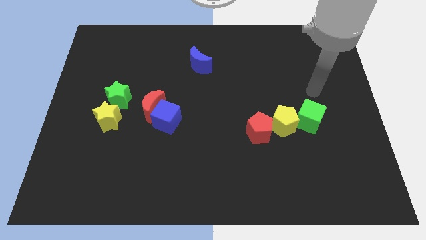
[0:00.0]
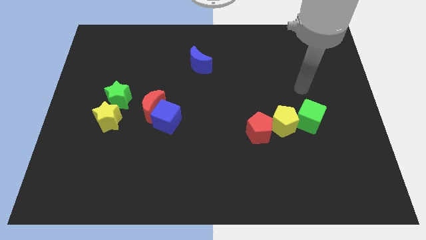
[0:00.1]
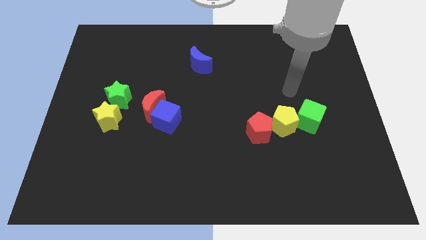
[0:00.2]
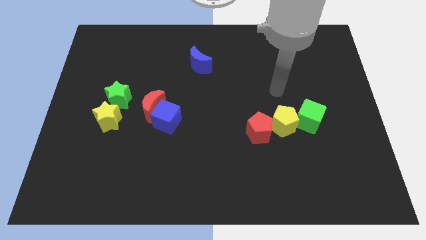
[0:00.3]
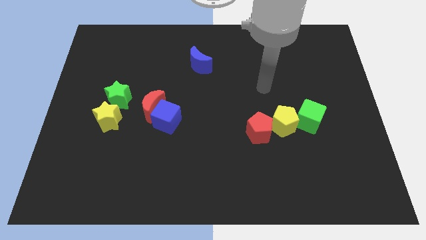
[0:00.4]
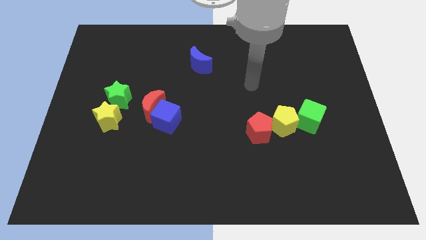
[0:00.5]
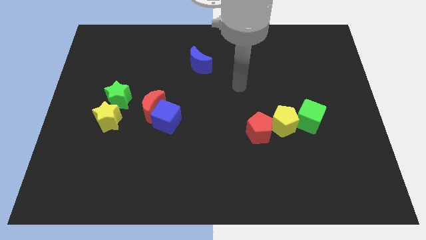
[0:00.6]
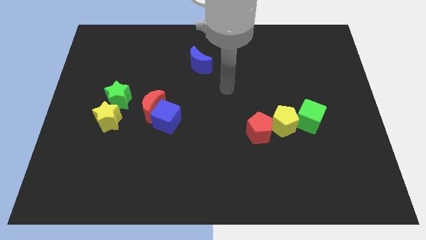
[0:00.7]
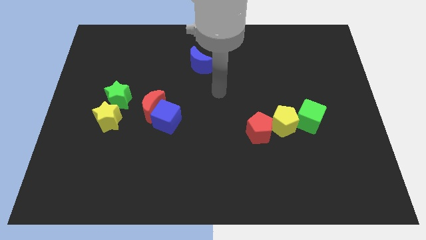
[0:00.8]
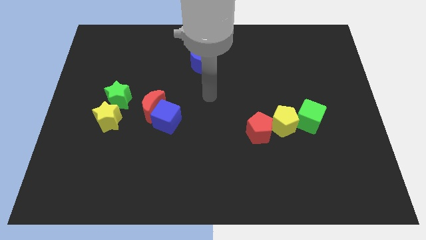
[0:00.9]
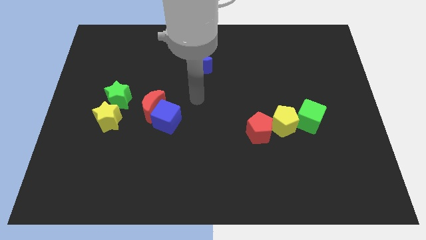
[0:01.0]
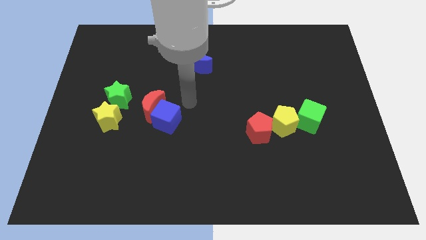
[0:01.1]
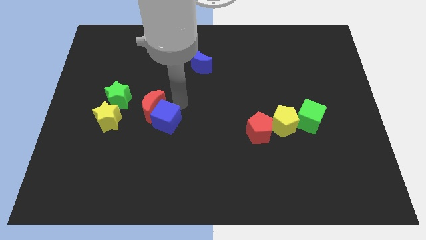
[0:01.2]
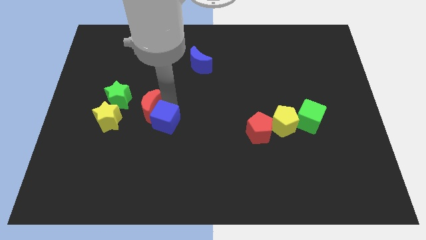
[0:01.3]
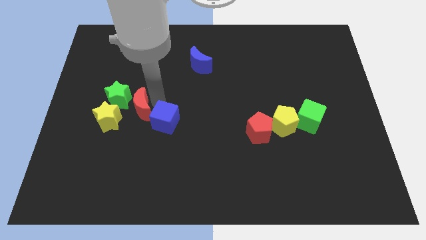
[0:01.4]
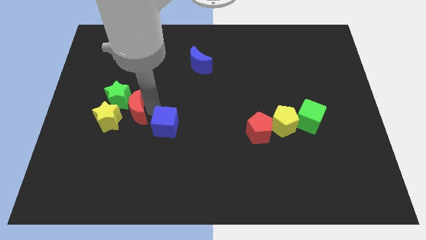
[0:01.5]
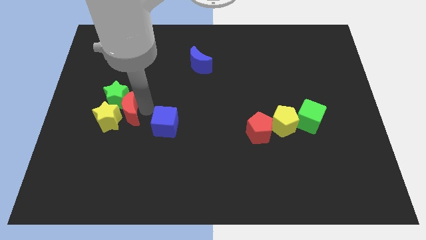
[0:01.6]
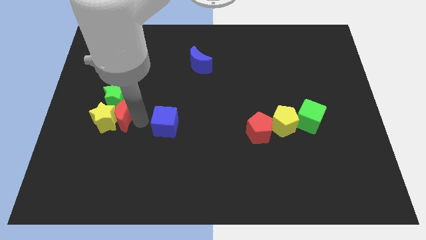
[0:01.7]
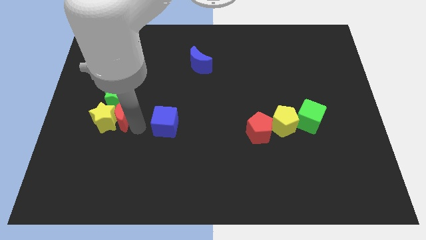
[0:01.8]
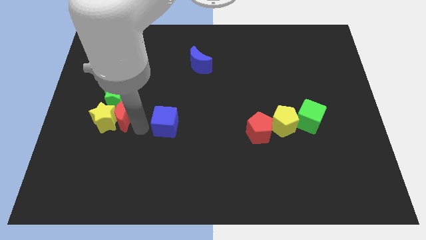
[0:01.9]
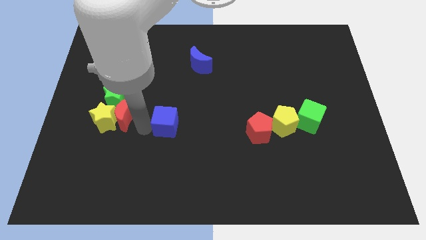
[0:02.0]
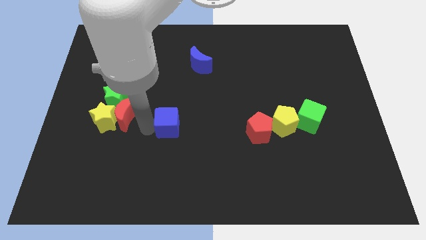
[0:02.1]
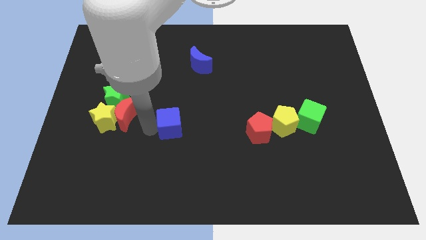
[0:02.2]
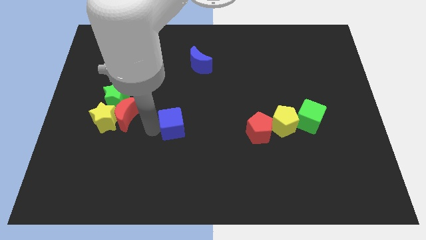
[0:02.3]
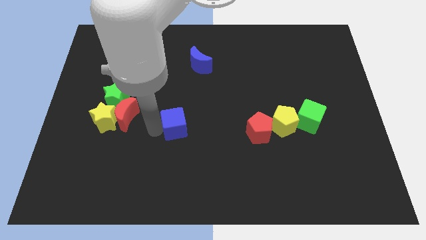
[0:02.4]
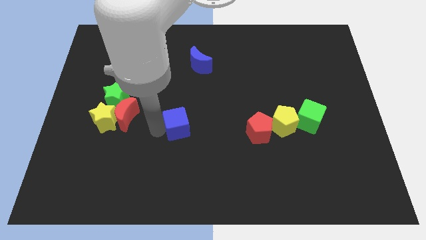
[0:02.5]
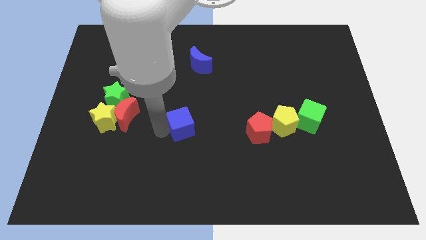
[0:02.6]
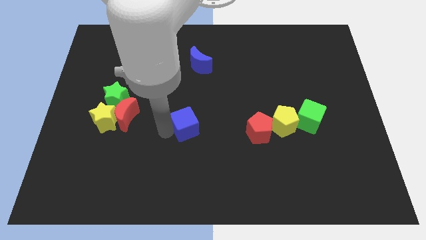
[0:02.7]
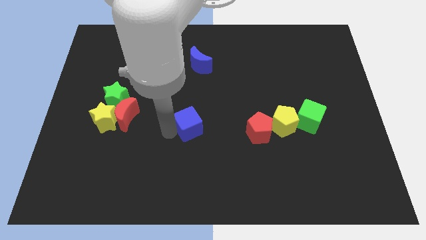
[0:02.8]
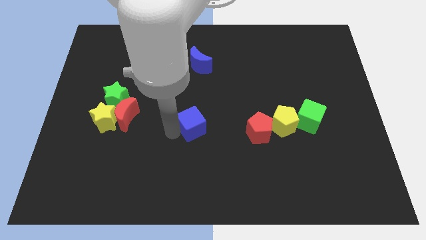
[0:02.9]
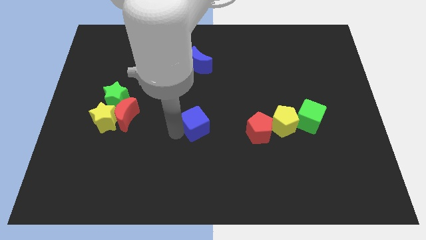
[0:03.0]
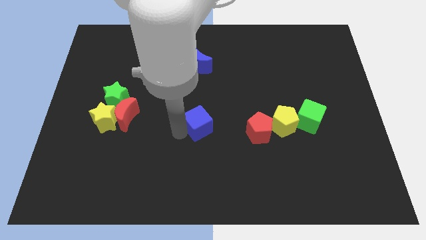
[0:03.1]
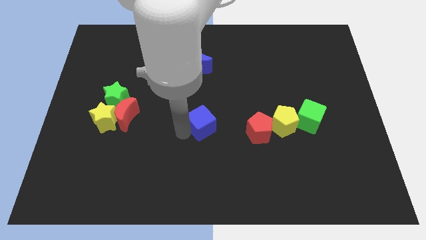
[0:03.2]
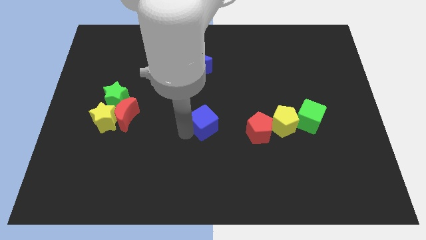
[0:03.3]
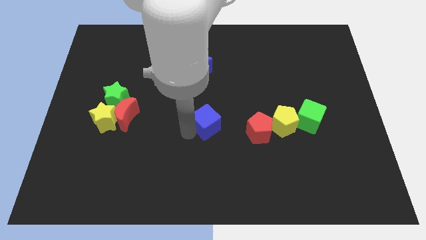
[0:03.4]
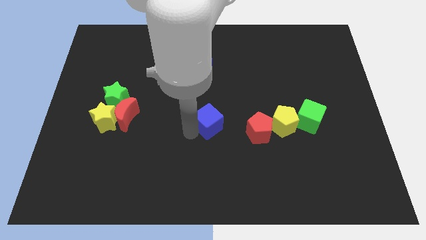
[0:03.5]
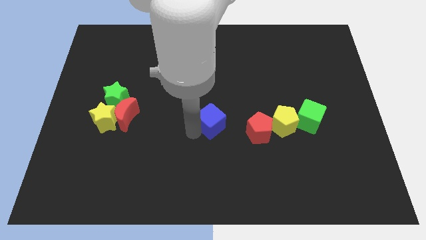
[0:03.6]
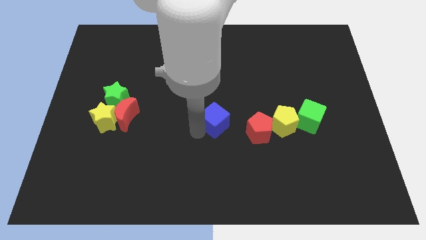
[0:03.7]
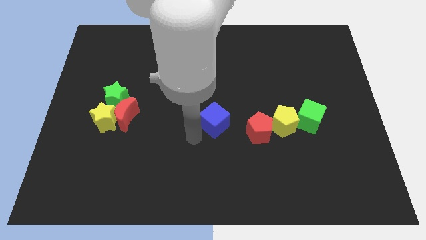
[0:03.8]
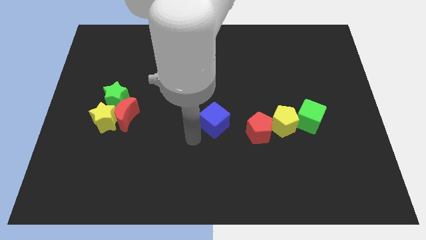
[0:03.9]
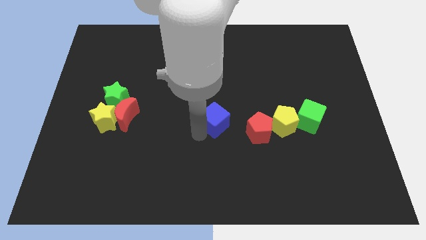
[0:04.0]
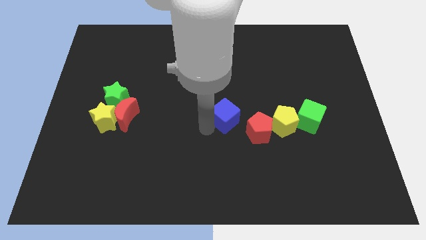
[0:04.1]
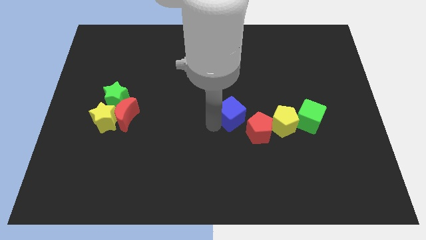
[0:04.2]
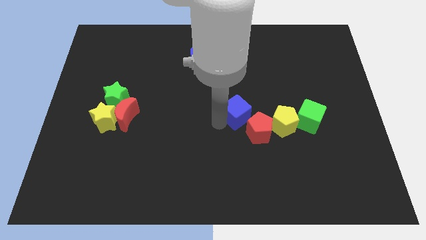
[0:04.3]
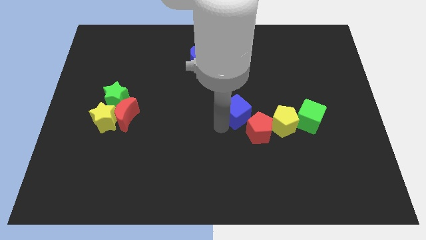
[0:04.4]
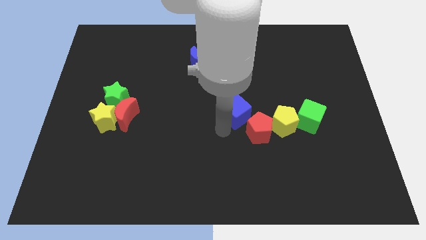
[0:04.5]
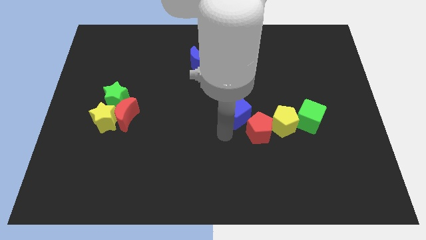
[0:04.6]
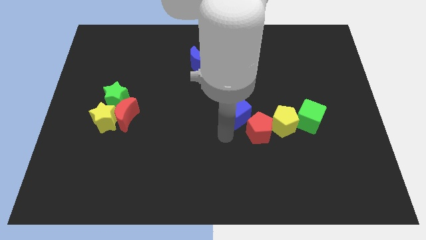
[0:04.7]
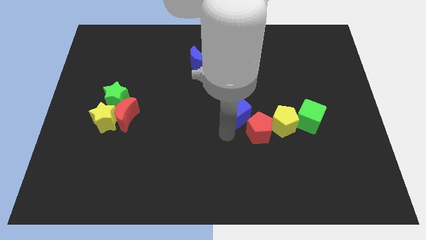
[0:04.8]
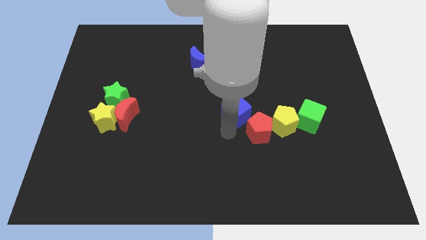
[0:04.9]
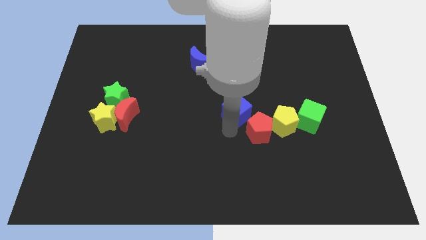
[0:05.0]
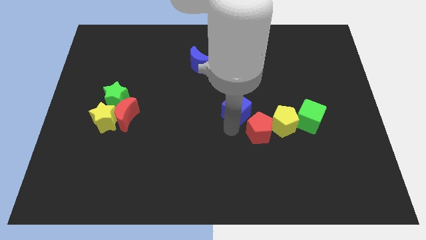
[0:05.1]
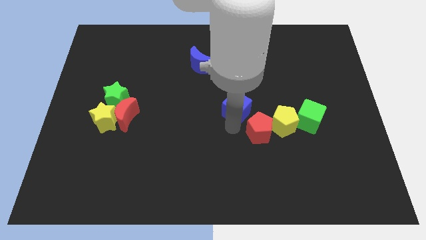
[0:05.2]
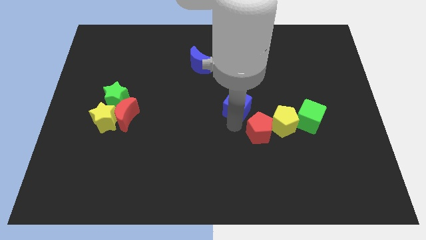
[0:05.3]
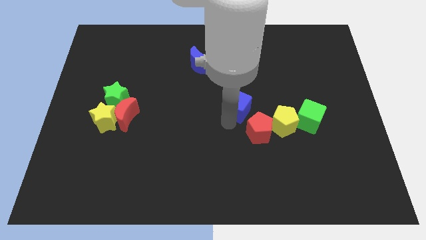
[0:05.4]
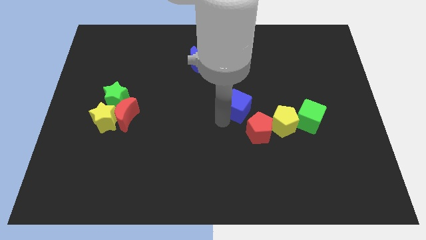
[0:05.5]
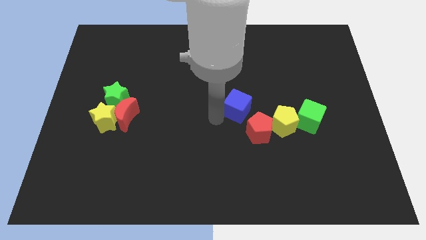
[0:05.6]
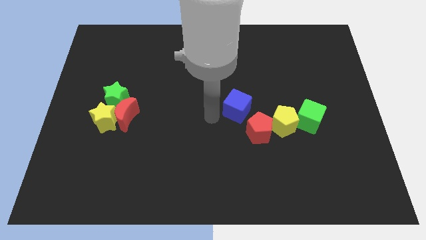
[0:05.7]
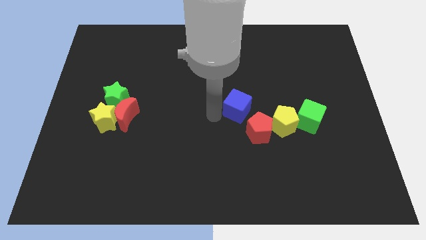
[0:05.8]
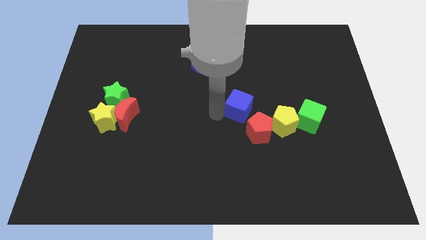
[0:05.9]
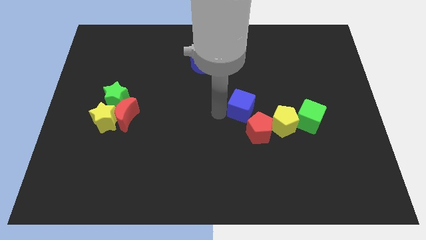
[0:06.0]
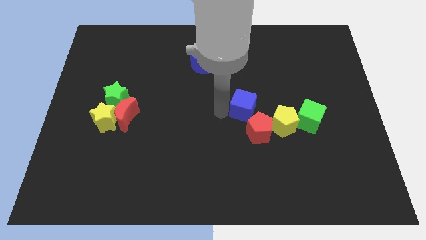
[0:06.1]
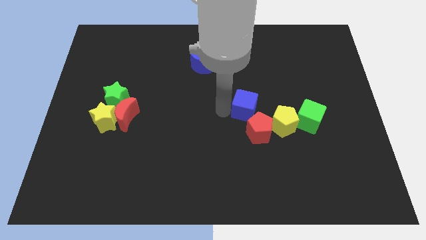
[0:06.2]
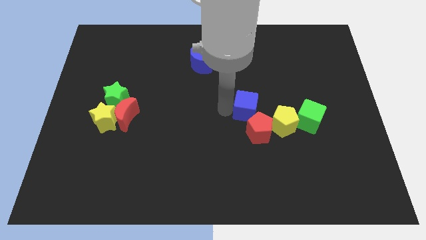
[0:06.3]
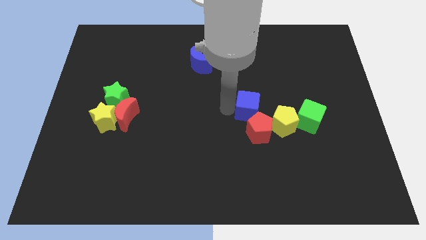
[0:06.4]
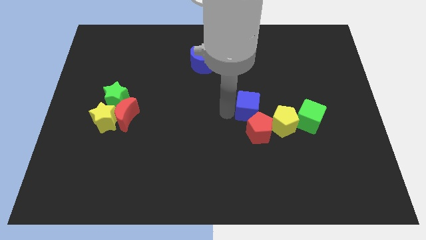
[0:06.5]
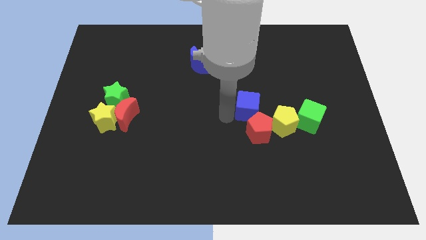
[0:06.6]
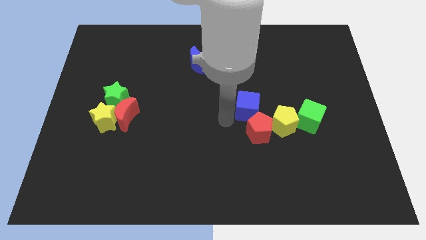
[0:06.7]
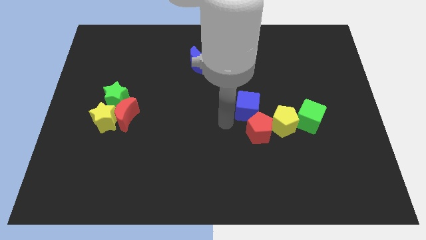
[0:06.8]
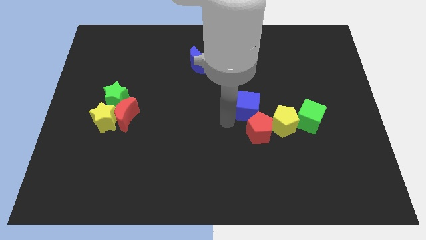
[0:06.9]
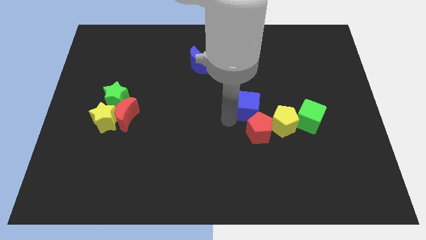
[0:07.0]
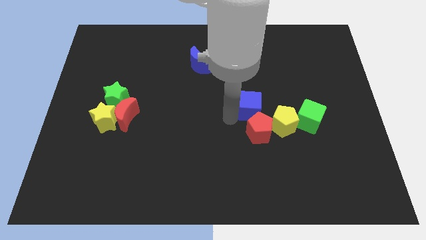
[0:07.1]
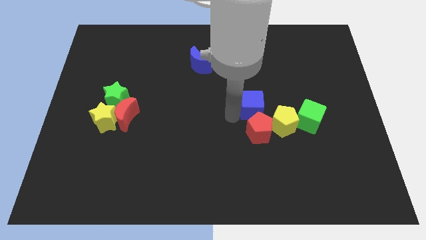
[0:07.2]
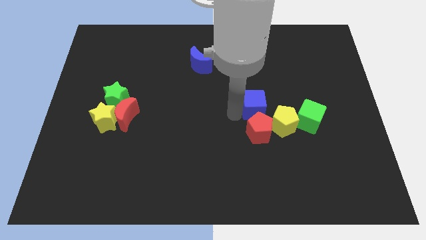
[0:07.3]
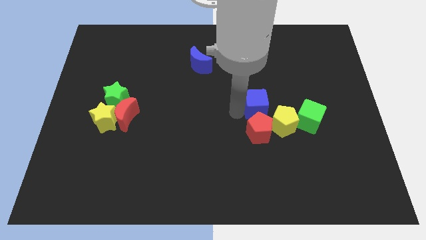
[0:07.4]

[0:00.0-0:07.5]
slide the blue cube to the top right side of the red pentagon

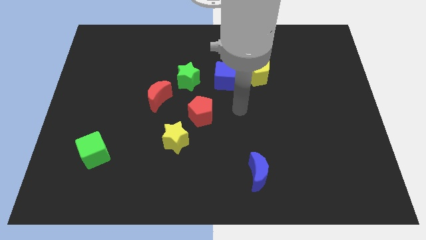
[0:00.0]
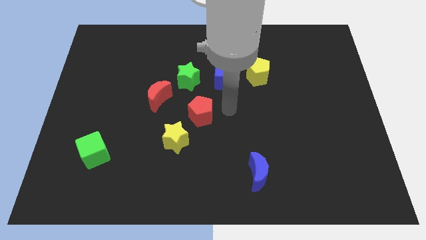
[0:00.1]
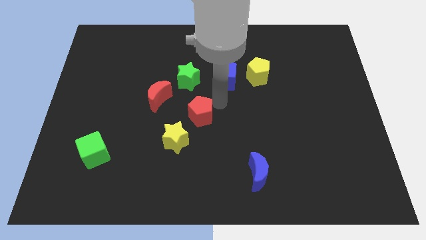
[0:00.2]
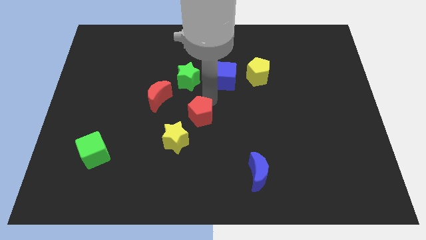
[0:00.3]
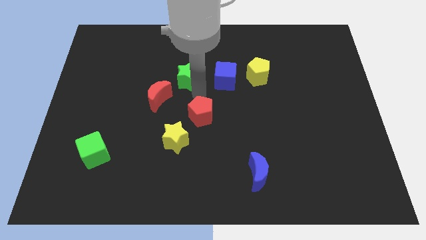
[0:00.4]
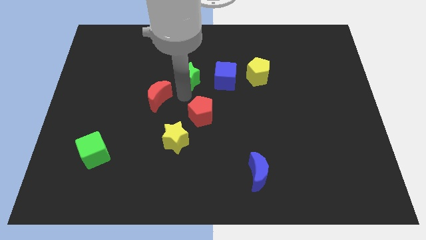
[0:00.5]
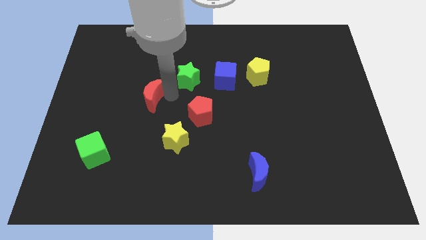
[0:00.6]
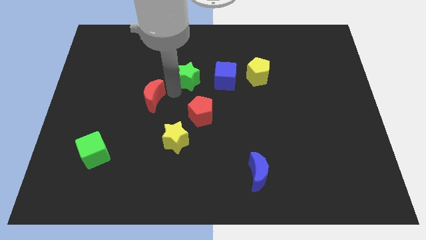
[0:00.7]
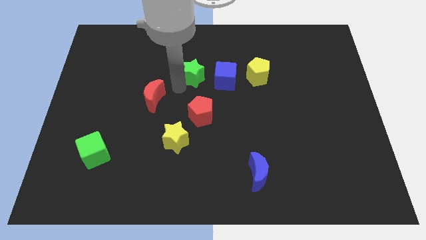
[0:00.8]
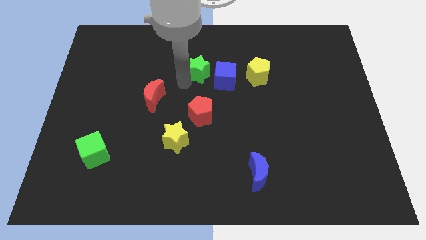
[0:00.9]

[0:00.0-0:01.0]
slide the green star to the top left of the blue cube
